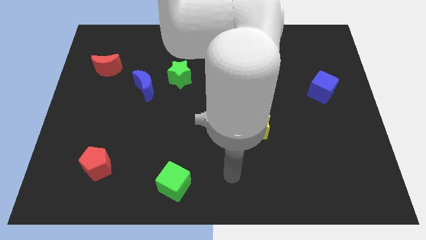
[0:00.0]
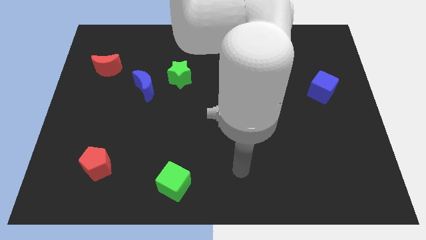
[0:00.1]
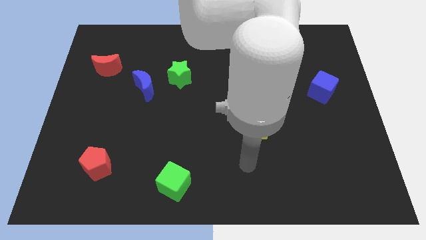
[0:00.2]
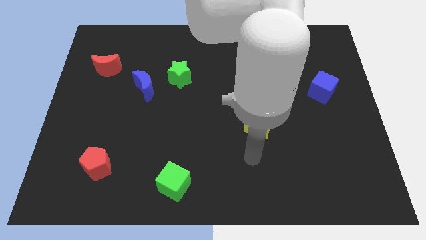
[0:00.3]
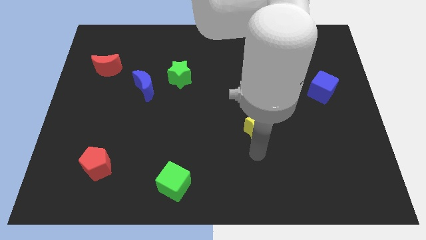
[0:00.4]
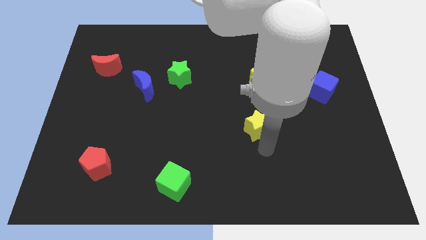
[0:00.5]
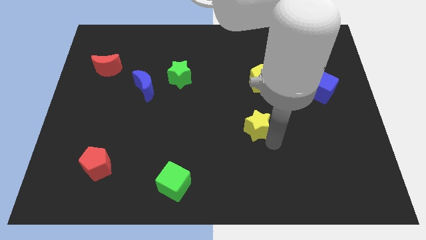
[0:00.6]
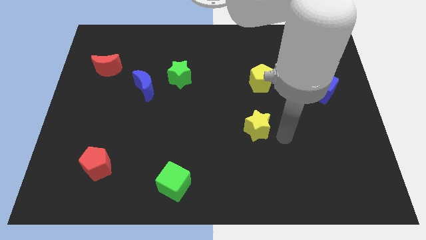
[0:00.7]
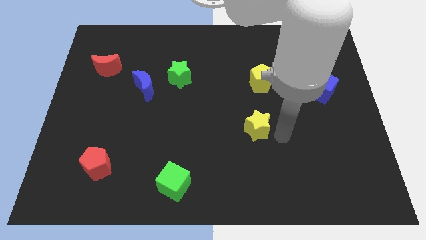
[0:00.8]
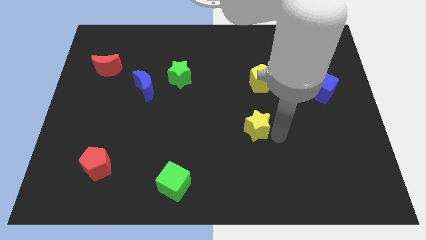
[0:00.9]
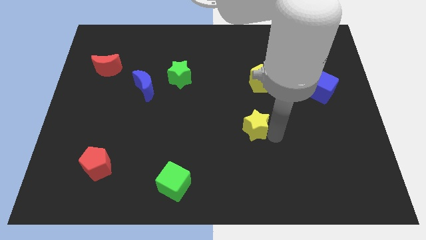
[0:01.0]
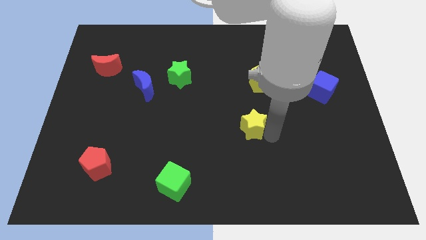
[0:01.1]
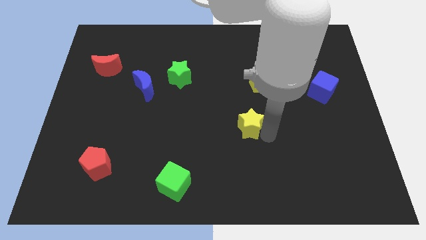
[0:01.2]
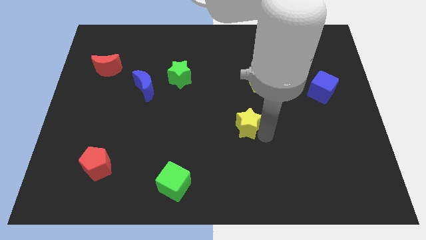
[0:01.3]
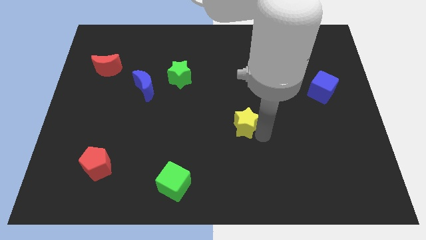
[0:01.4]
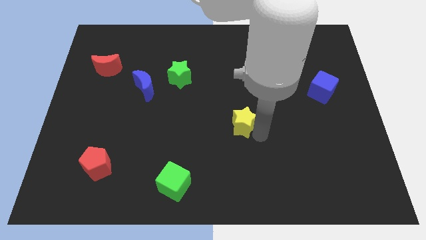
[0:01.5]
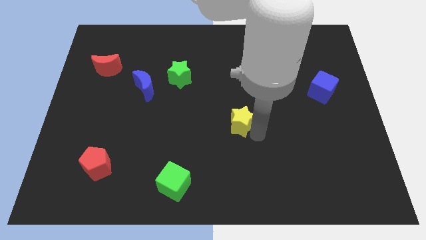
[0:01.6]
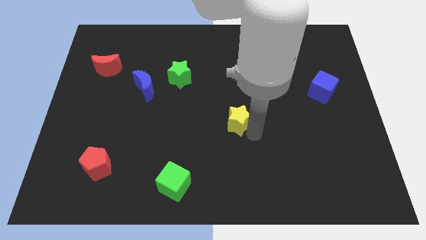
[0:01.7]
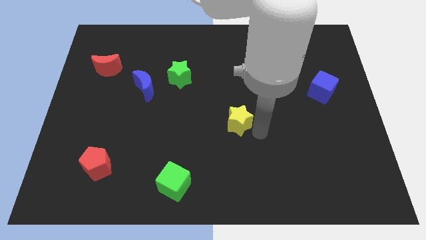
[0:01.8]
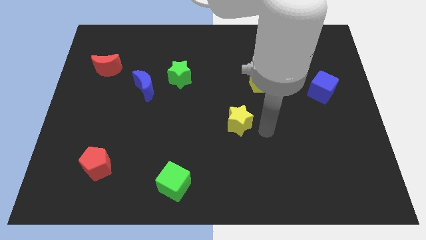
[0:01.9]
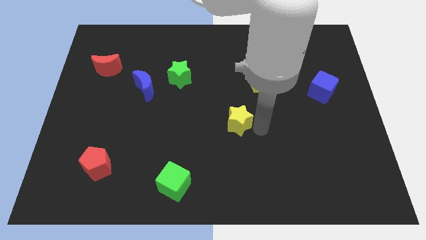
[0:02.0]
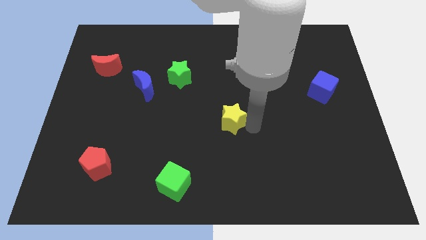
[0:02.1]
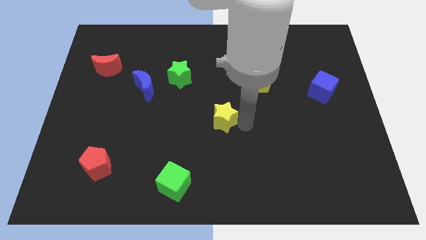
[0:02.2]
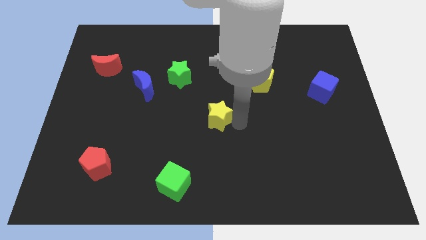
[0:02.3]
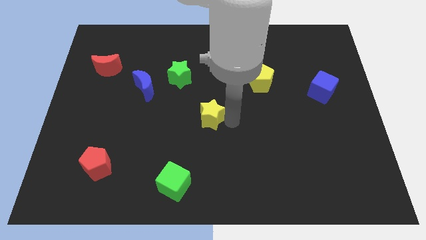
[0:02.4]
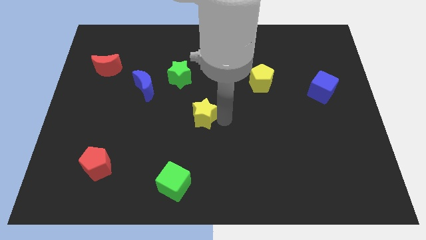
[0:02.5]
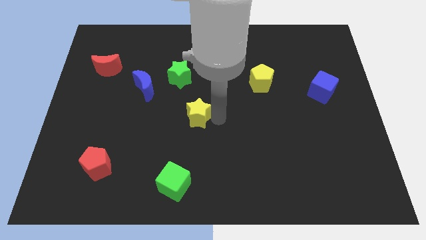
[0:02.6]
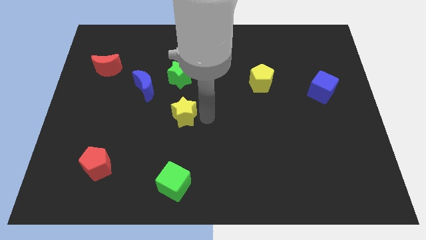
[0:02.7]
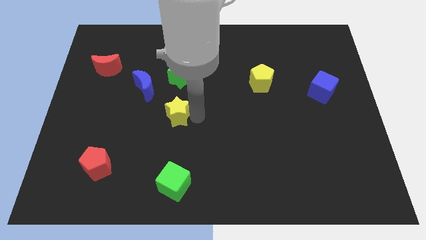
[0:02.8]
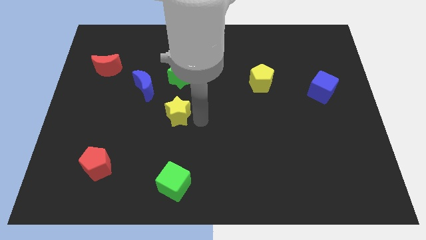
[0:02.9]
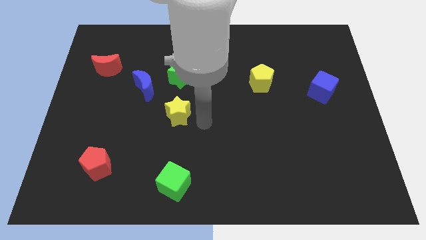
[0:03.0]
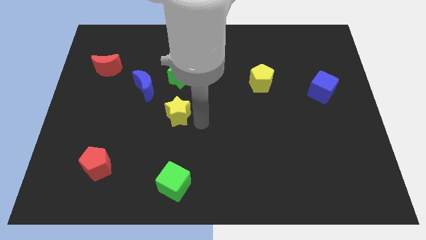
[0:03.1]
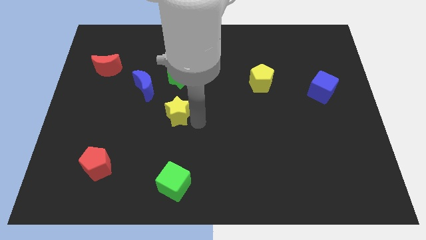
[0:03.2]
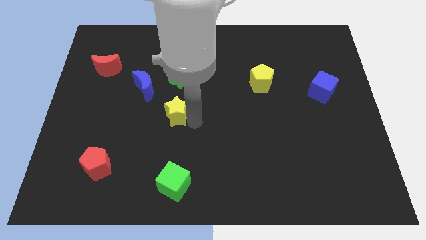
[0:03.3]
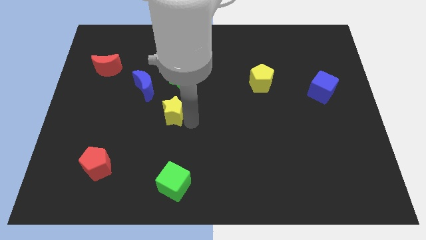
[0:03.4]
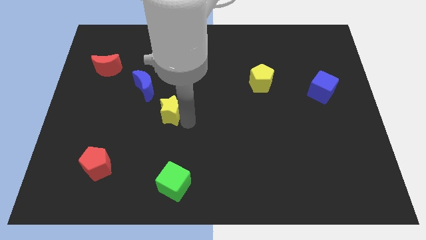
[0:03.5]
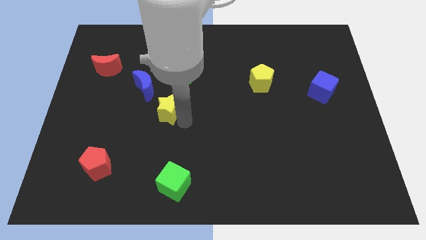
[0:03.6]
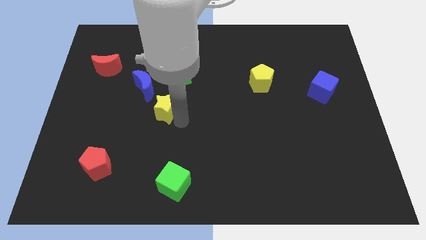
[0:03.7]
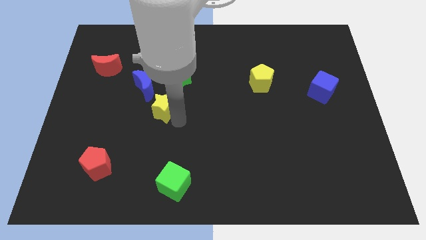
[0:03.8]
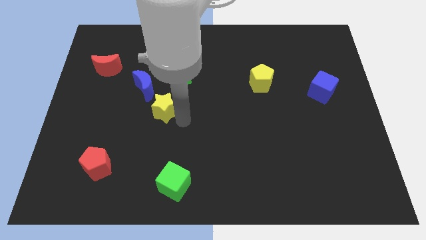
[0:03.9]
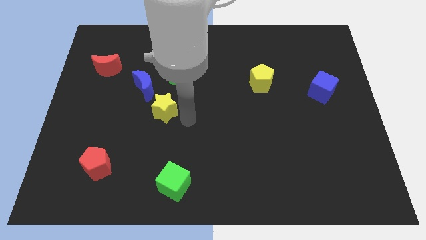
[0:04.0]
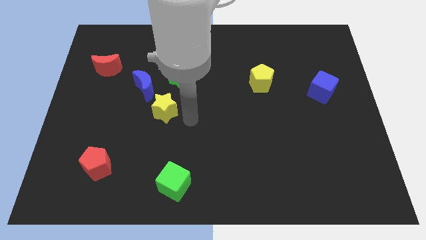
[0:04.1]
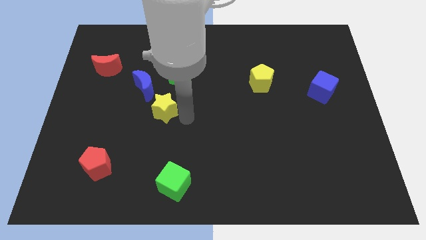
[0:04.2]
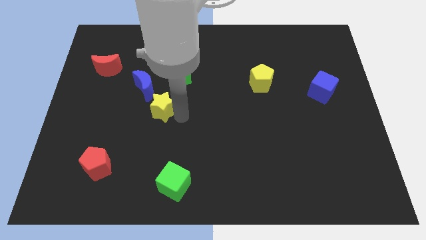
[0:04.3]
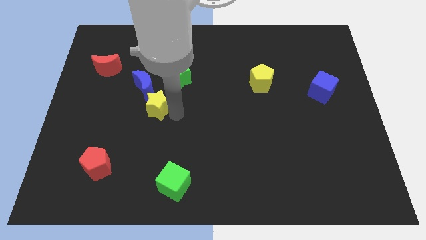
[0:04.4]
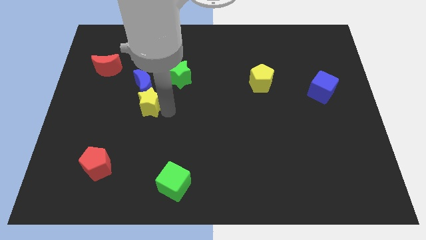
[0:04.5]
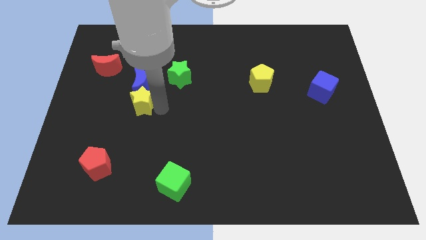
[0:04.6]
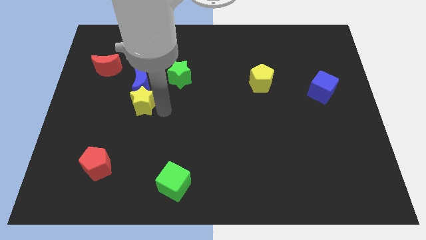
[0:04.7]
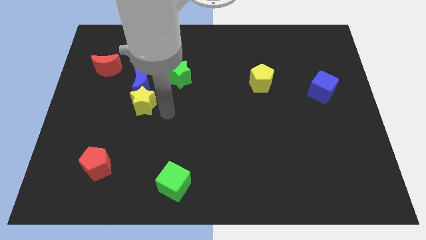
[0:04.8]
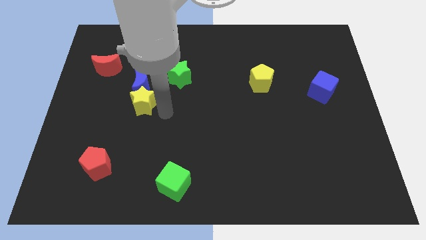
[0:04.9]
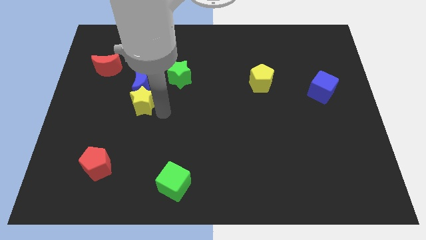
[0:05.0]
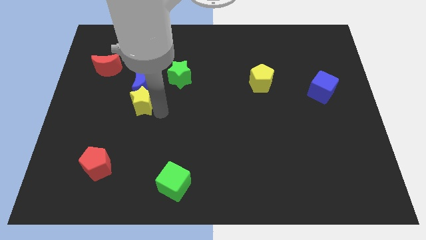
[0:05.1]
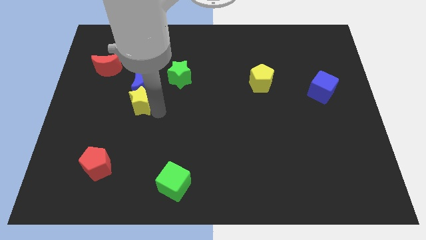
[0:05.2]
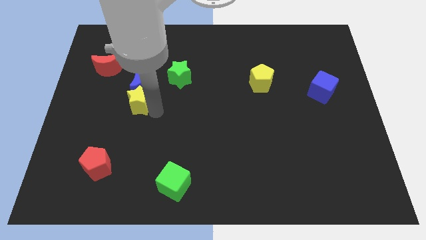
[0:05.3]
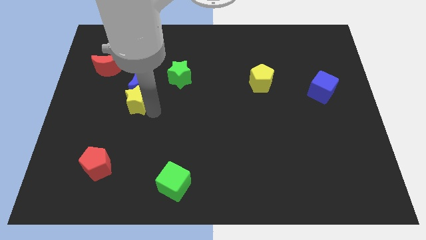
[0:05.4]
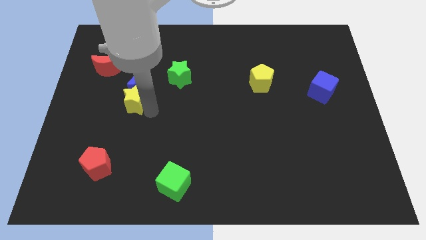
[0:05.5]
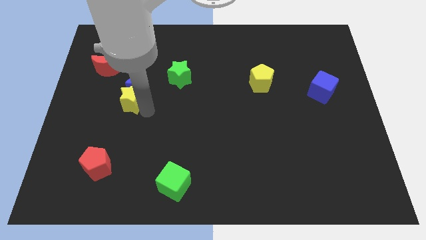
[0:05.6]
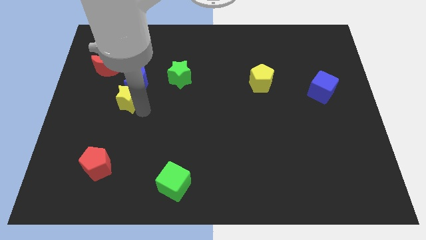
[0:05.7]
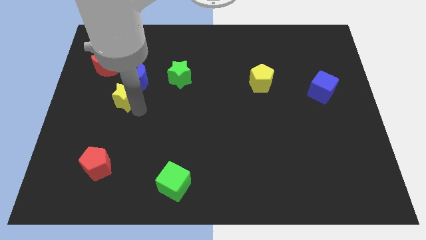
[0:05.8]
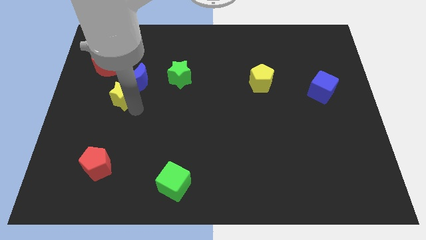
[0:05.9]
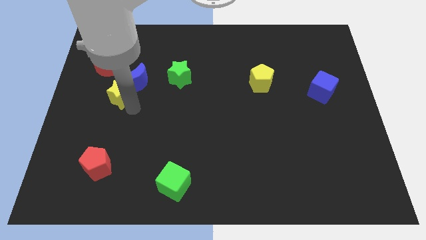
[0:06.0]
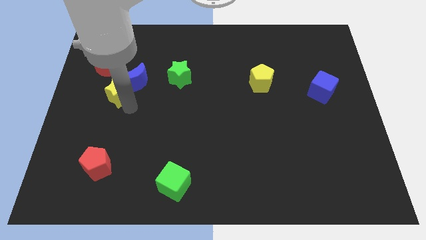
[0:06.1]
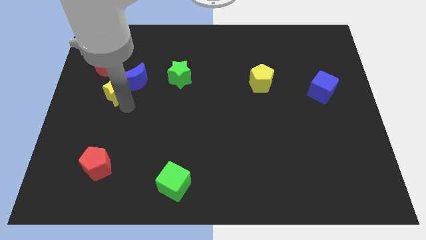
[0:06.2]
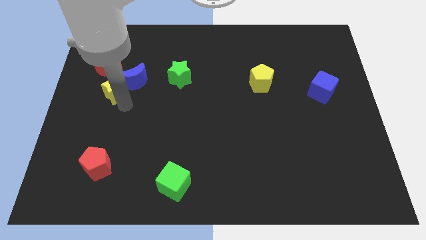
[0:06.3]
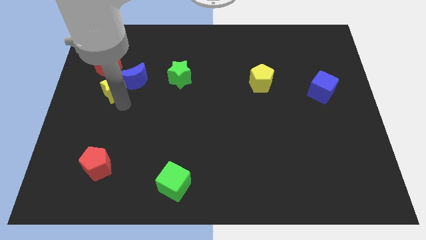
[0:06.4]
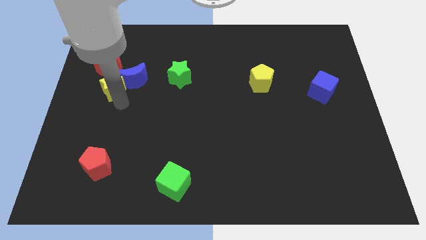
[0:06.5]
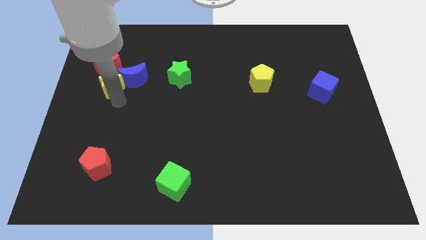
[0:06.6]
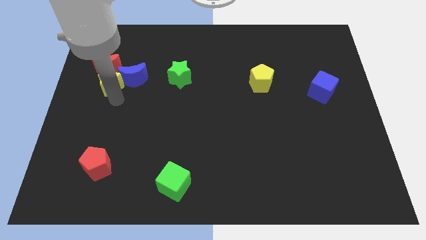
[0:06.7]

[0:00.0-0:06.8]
slide the yellow star next to the red moon
